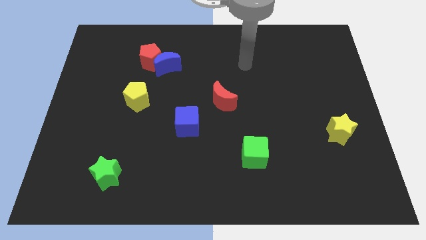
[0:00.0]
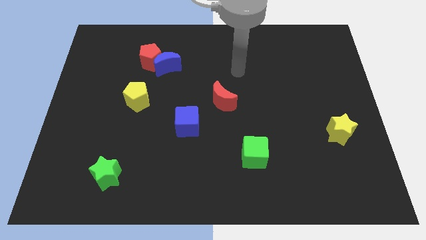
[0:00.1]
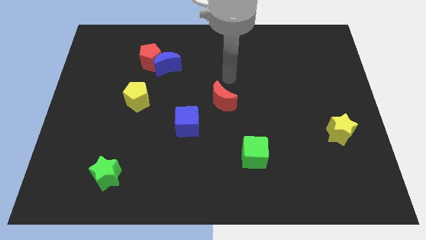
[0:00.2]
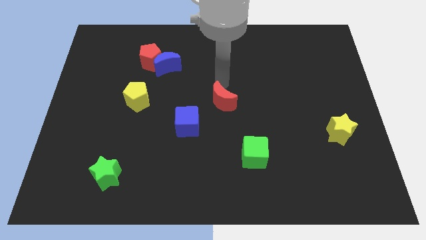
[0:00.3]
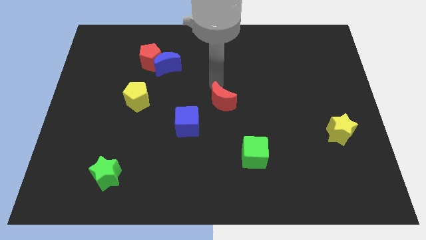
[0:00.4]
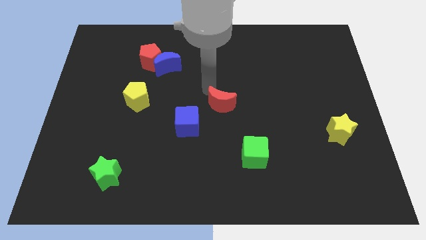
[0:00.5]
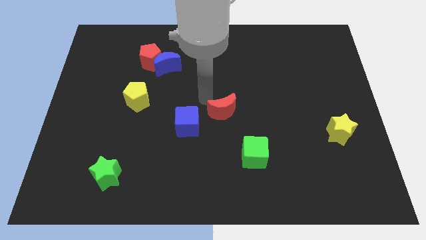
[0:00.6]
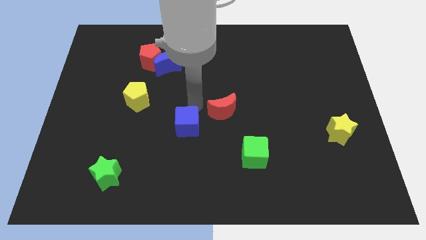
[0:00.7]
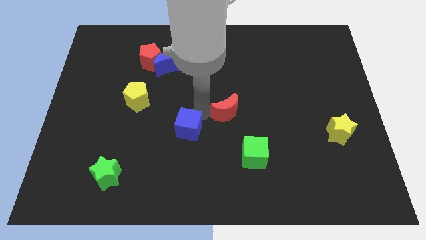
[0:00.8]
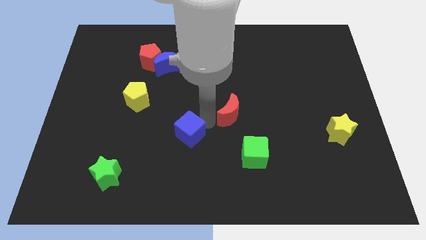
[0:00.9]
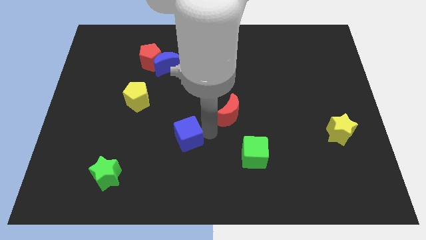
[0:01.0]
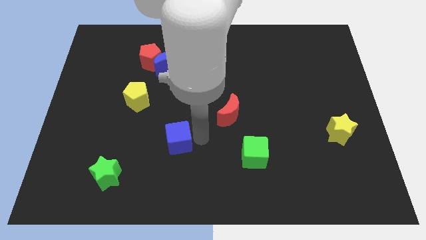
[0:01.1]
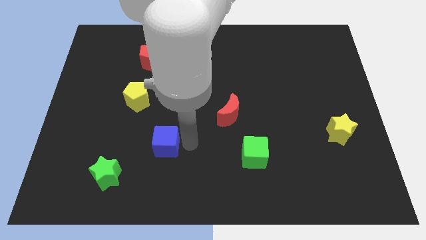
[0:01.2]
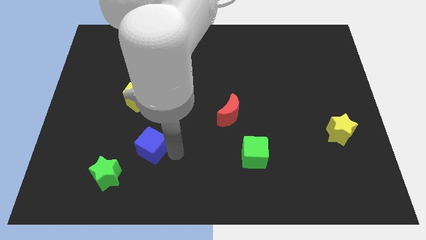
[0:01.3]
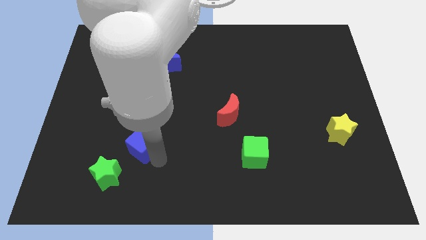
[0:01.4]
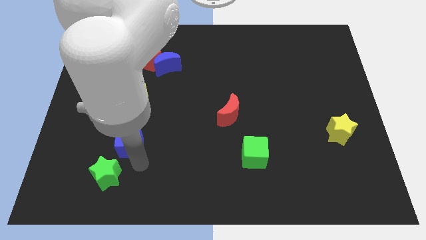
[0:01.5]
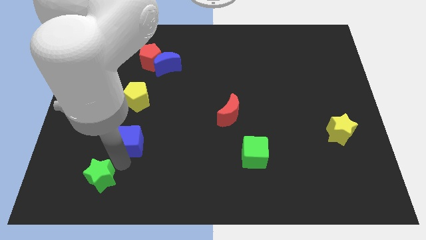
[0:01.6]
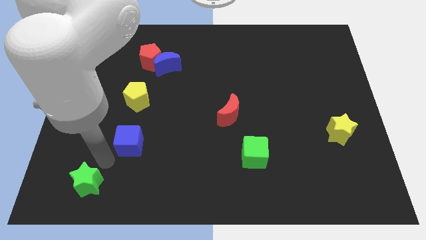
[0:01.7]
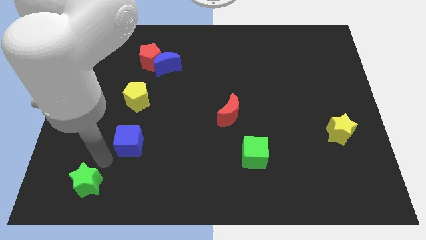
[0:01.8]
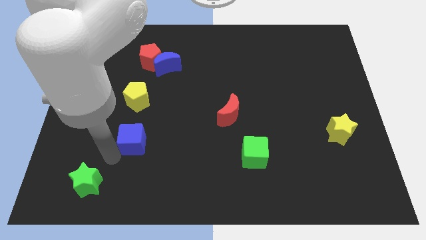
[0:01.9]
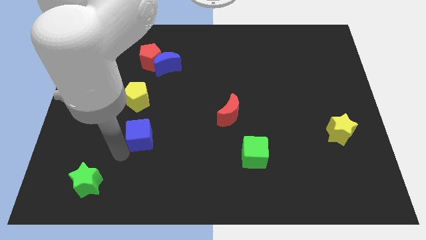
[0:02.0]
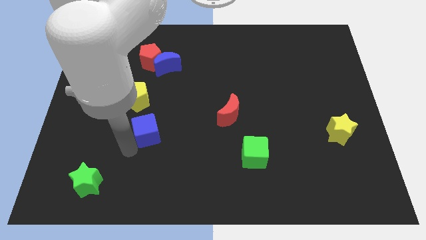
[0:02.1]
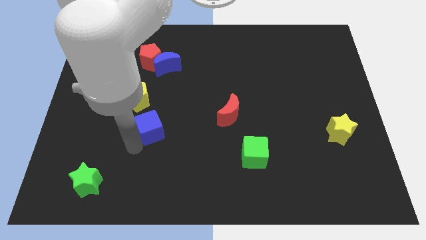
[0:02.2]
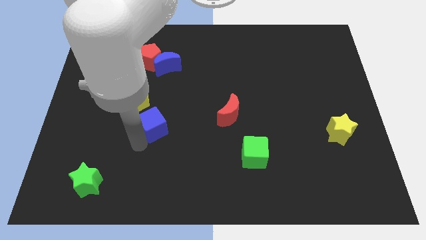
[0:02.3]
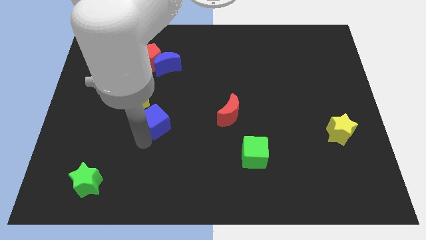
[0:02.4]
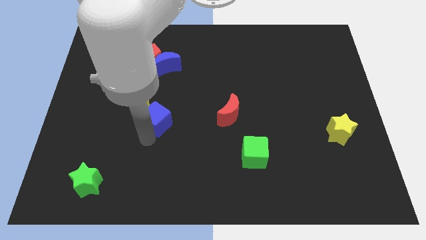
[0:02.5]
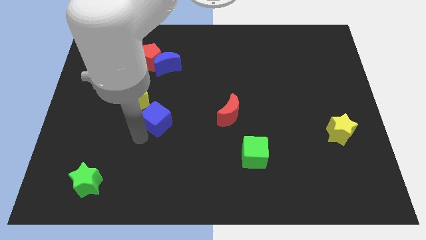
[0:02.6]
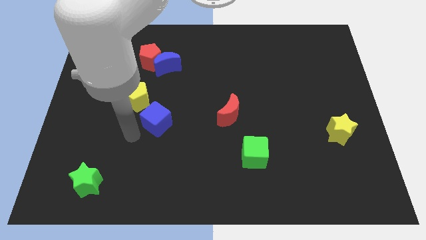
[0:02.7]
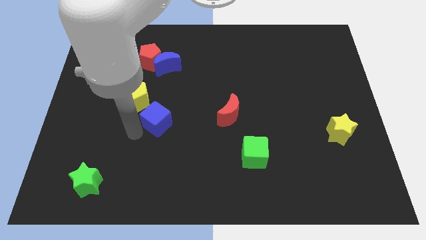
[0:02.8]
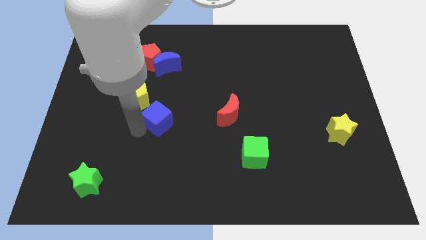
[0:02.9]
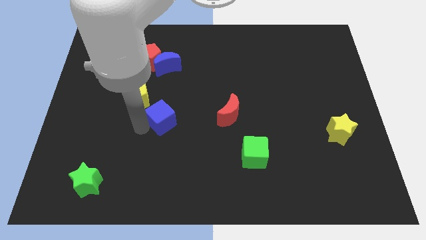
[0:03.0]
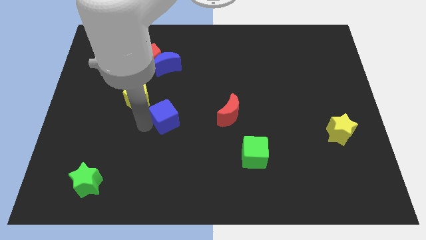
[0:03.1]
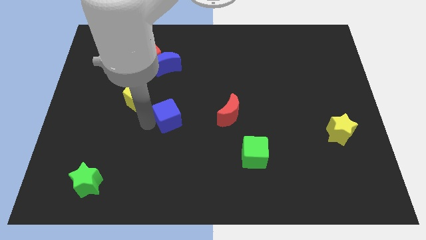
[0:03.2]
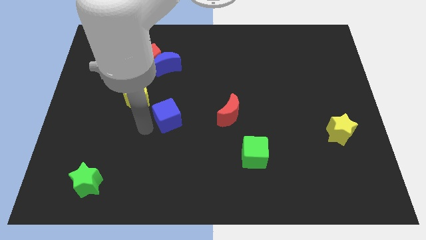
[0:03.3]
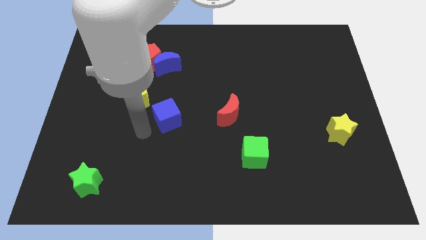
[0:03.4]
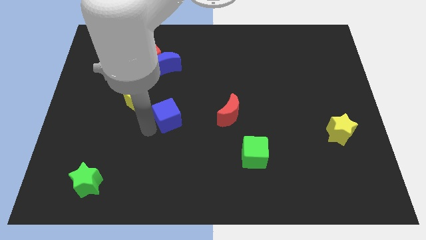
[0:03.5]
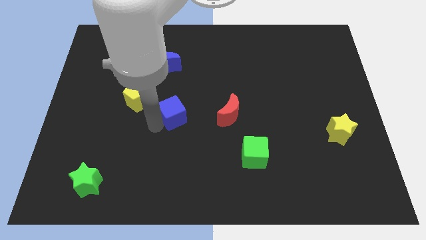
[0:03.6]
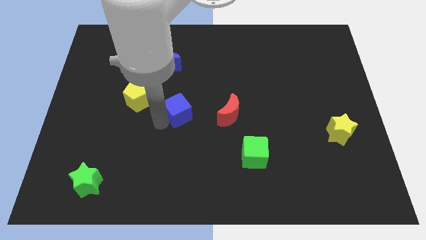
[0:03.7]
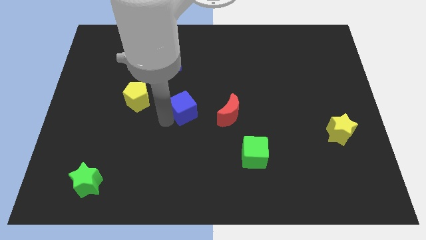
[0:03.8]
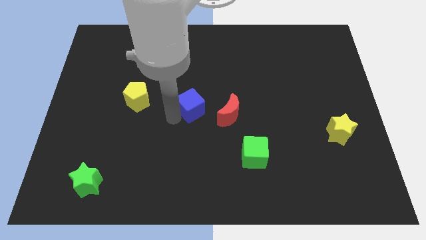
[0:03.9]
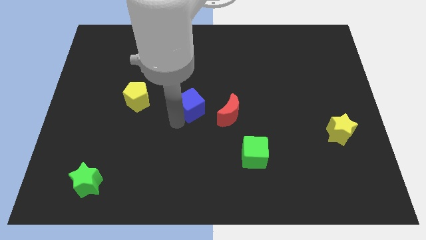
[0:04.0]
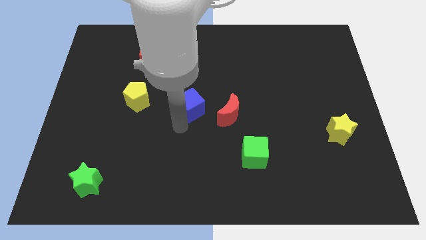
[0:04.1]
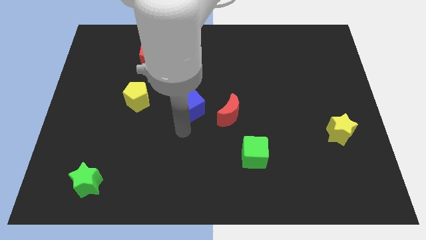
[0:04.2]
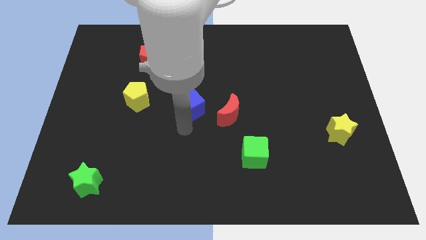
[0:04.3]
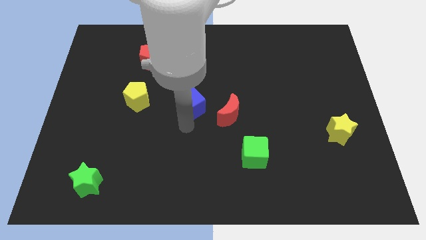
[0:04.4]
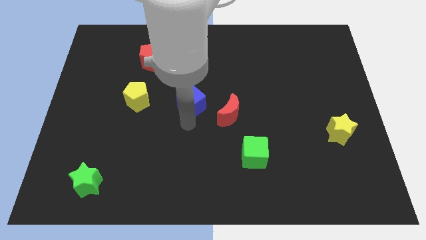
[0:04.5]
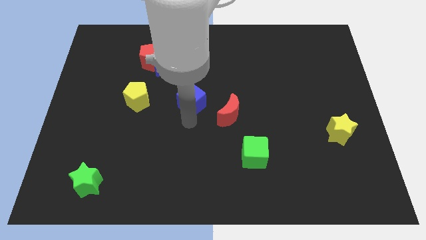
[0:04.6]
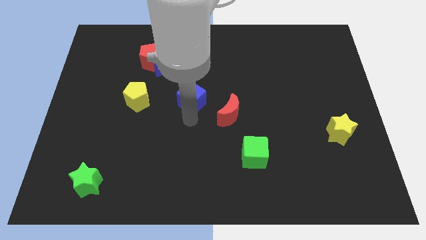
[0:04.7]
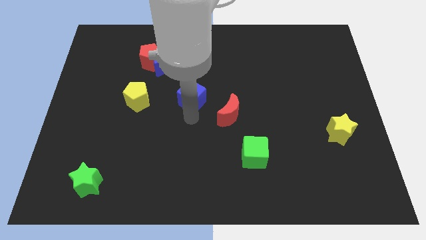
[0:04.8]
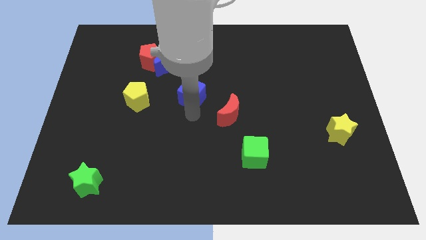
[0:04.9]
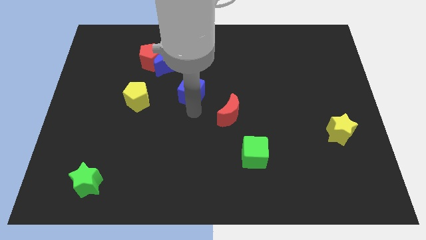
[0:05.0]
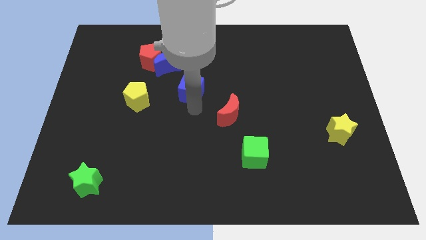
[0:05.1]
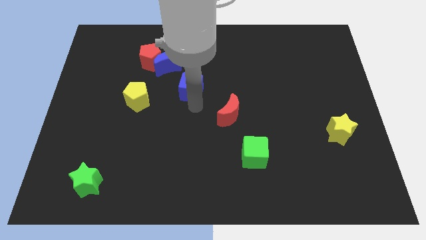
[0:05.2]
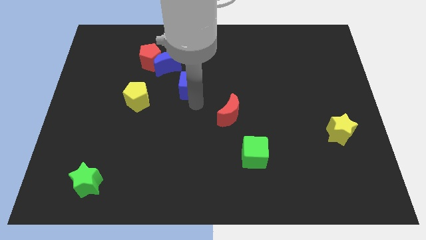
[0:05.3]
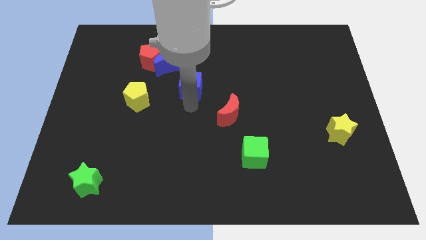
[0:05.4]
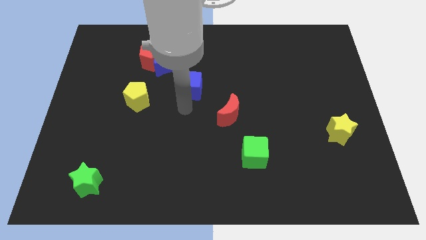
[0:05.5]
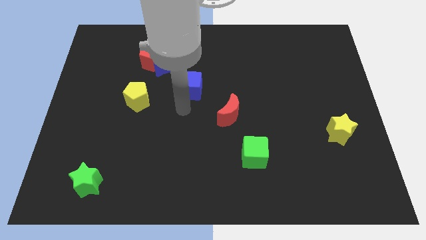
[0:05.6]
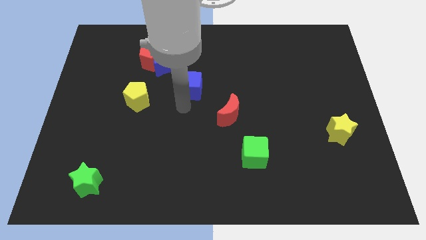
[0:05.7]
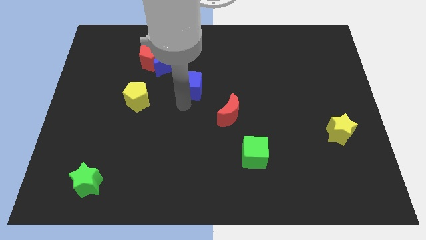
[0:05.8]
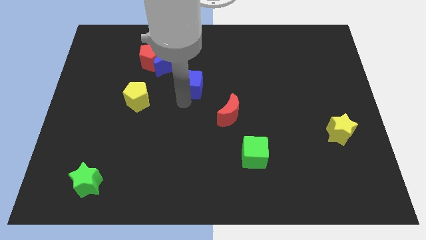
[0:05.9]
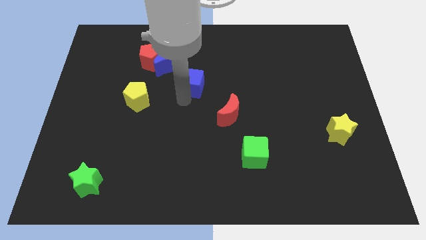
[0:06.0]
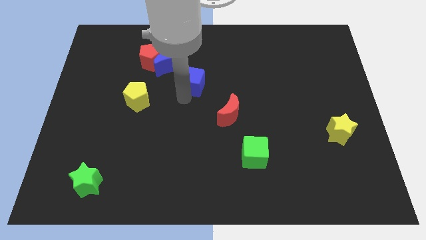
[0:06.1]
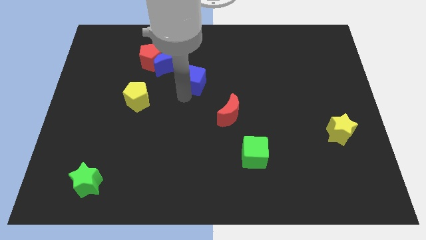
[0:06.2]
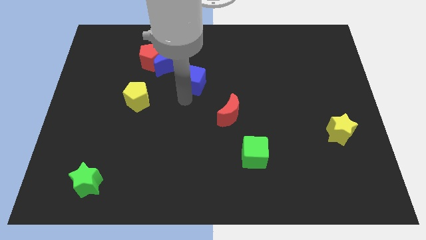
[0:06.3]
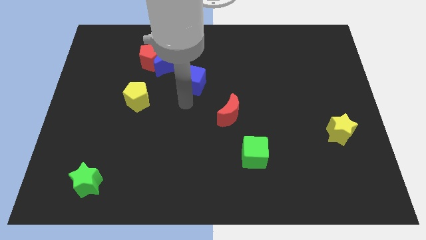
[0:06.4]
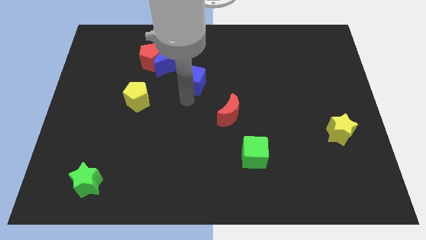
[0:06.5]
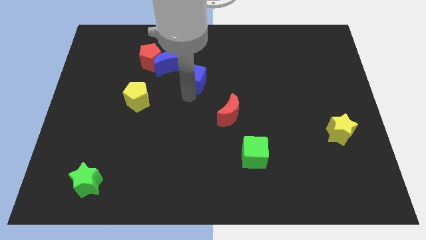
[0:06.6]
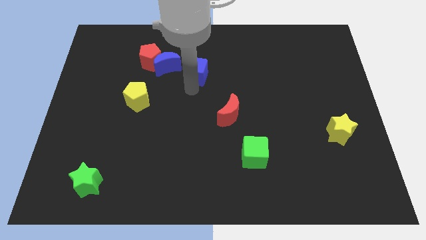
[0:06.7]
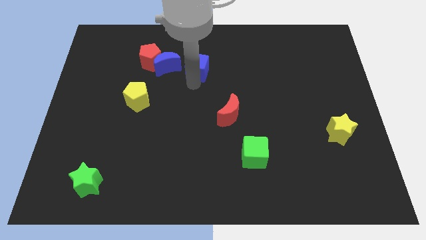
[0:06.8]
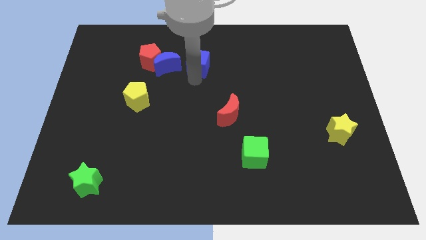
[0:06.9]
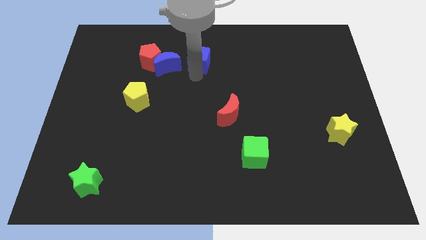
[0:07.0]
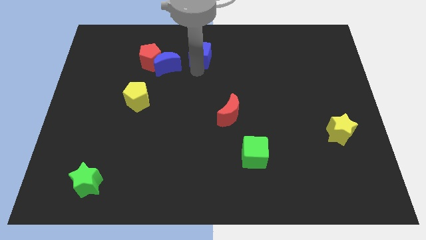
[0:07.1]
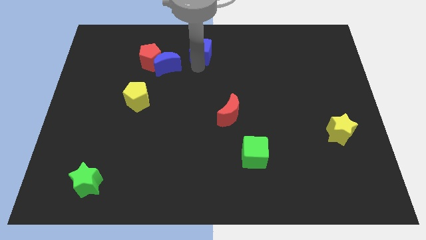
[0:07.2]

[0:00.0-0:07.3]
slide the blue cube to the top
